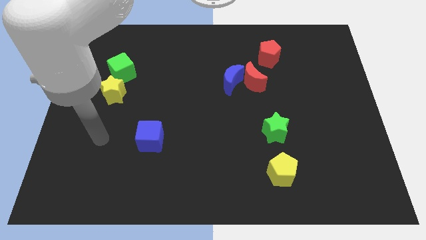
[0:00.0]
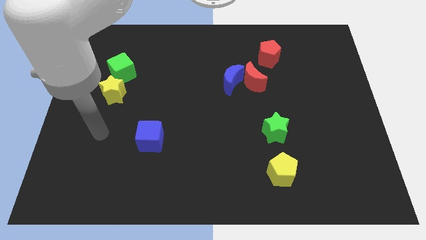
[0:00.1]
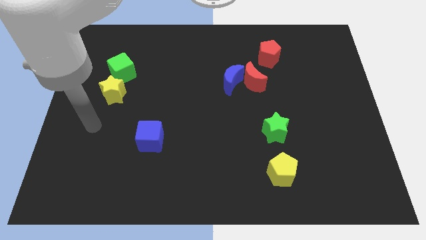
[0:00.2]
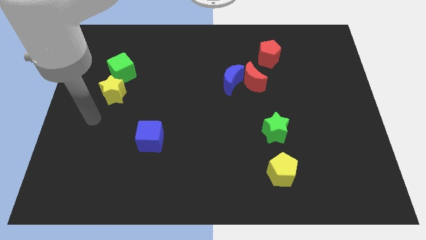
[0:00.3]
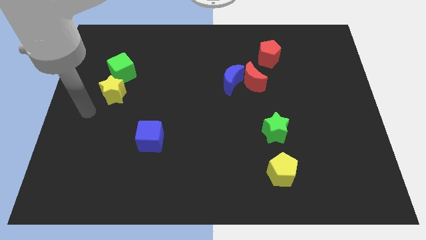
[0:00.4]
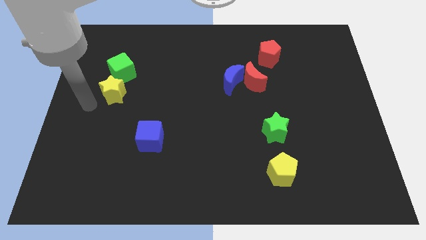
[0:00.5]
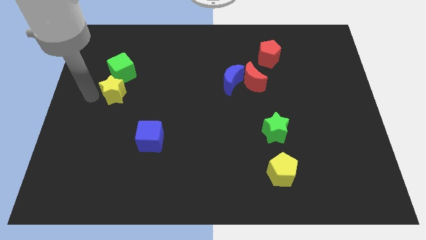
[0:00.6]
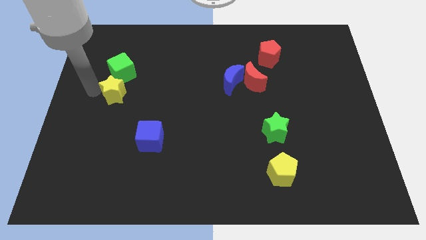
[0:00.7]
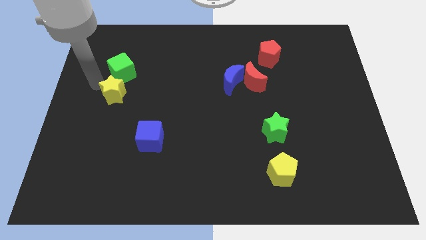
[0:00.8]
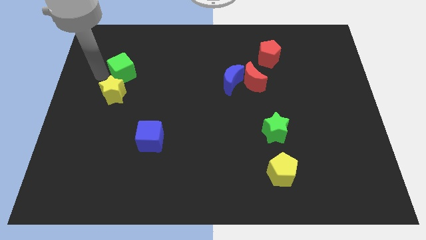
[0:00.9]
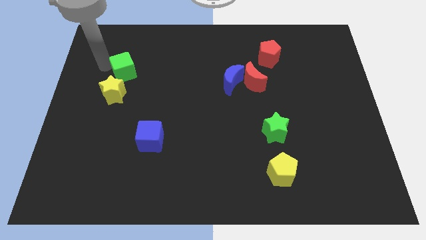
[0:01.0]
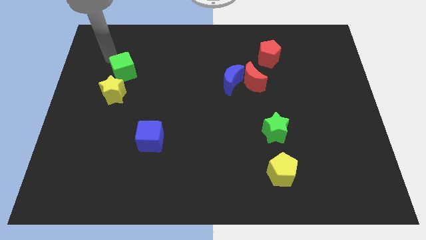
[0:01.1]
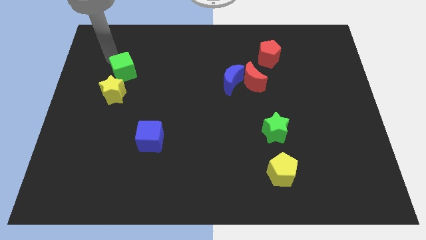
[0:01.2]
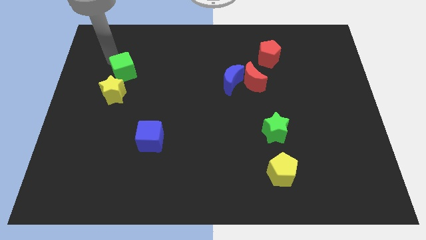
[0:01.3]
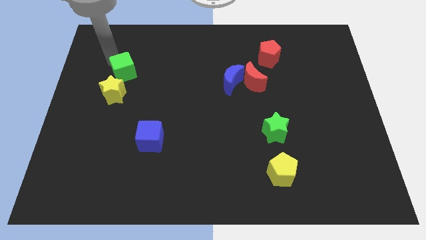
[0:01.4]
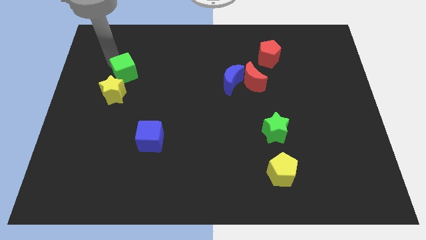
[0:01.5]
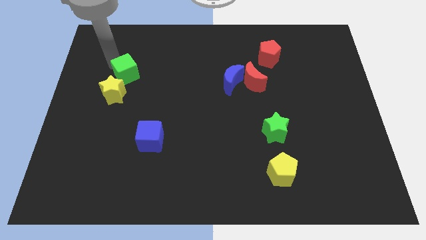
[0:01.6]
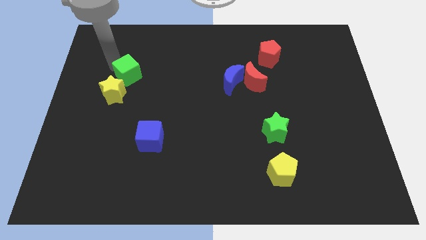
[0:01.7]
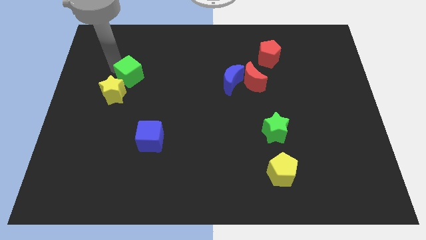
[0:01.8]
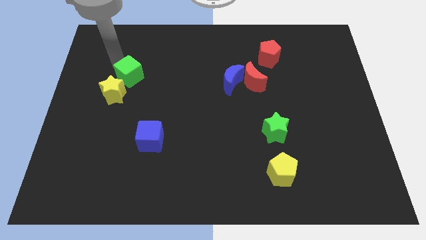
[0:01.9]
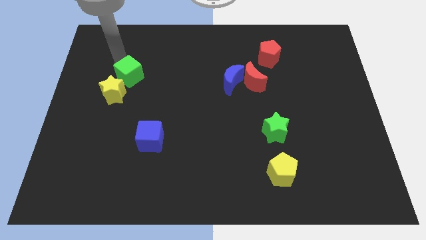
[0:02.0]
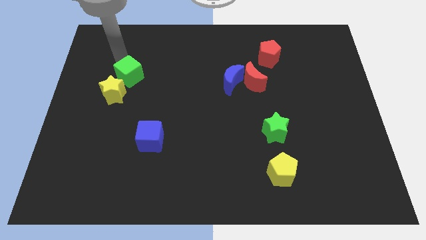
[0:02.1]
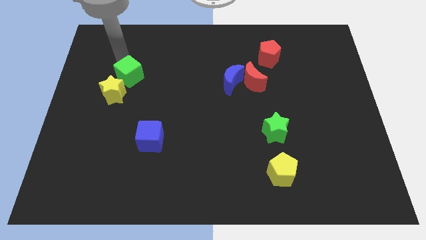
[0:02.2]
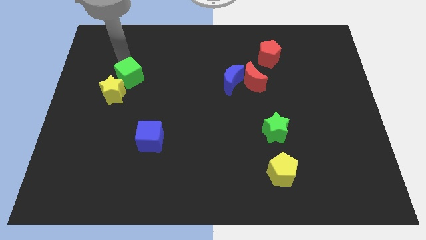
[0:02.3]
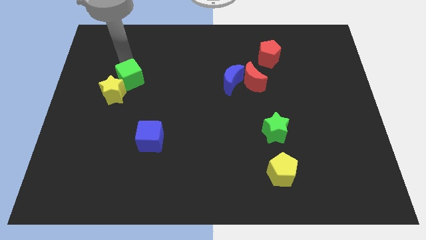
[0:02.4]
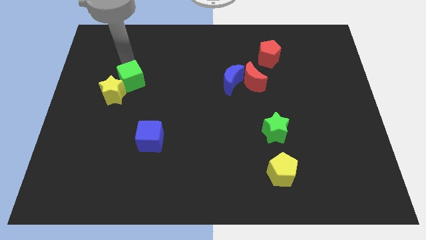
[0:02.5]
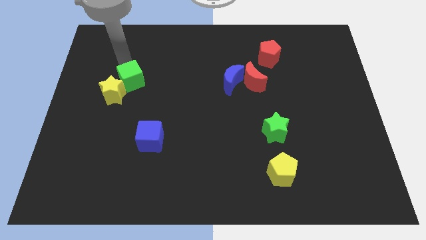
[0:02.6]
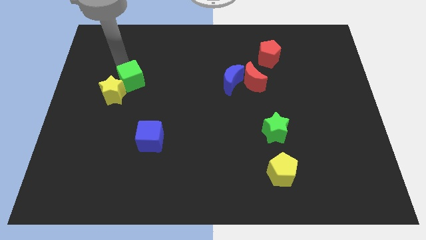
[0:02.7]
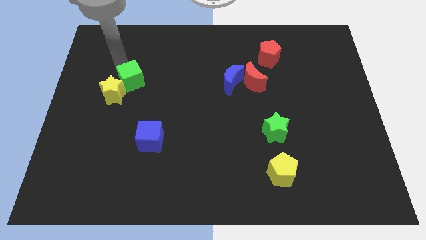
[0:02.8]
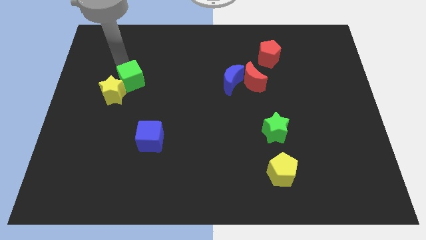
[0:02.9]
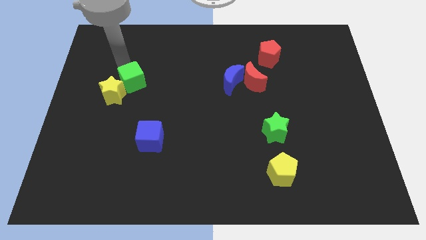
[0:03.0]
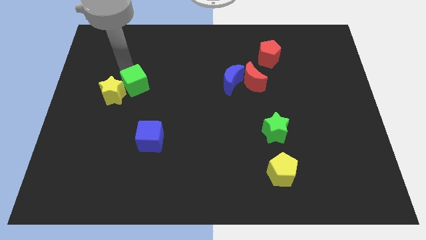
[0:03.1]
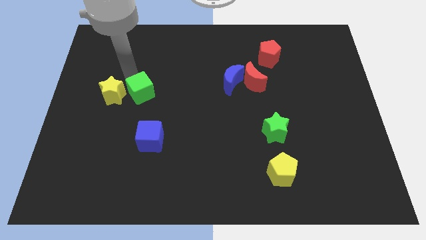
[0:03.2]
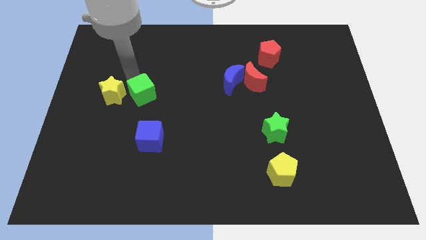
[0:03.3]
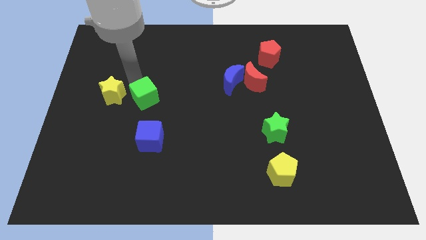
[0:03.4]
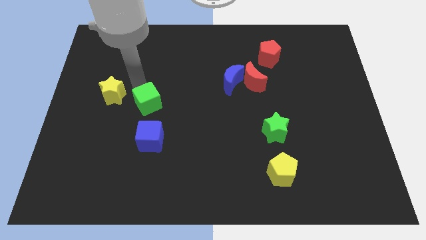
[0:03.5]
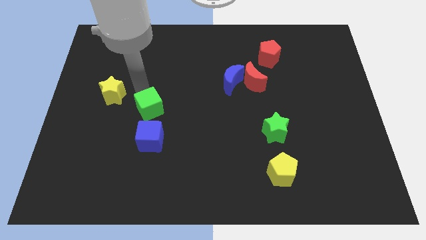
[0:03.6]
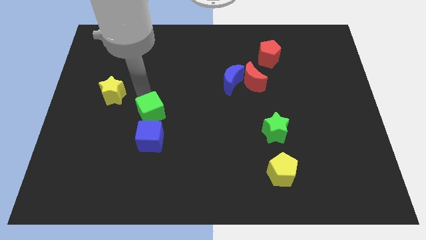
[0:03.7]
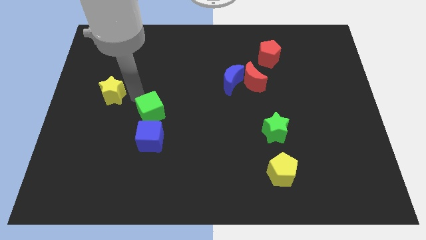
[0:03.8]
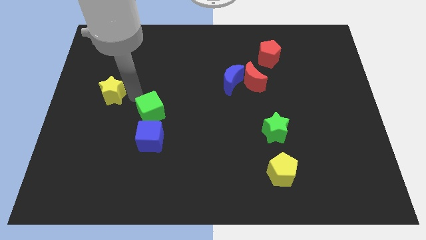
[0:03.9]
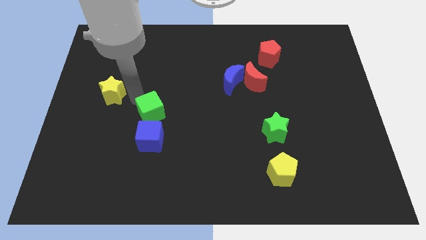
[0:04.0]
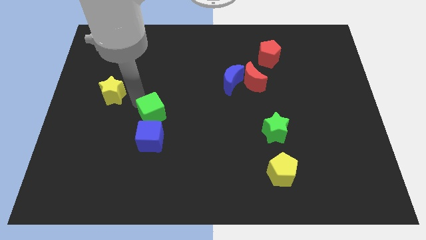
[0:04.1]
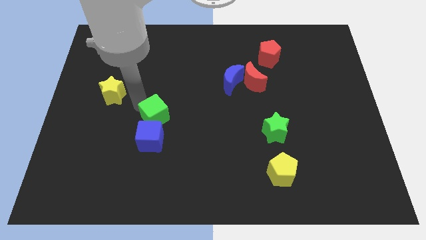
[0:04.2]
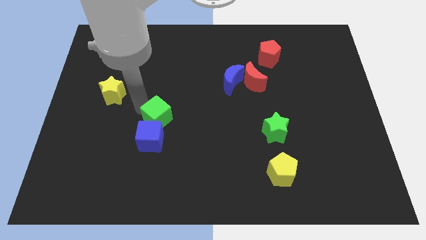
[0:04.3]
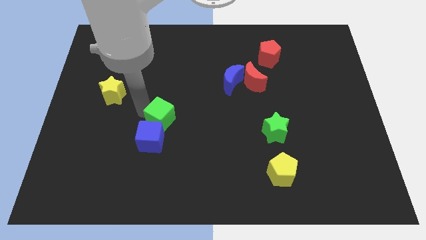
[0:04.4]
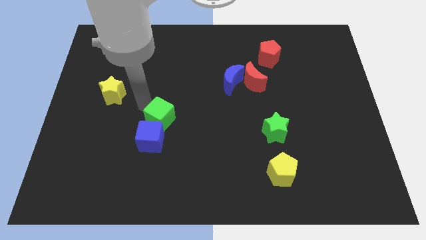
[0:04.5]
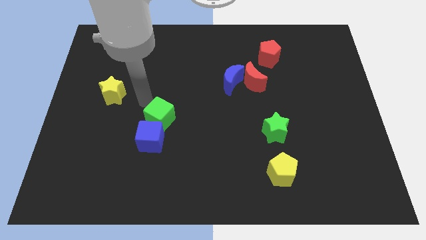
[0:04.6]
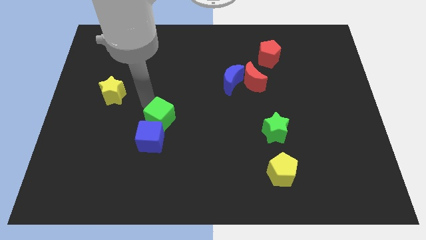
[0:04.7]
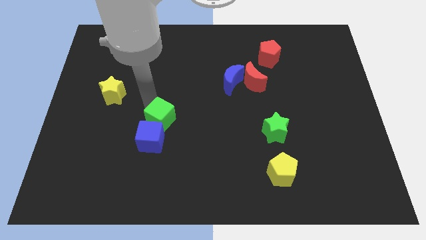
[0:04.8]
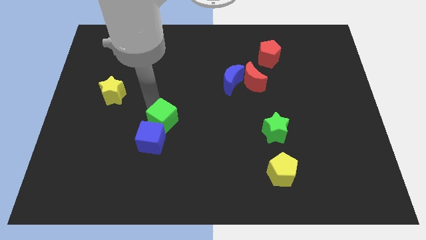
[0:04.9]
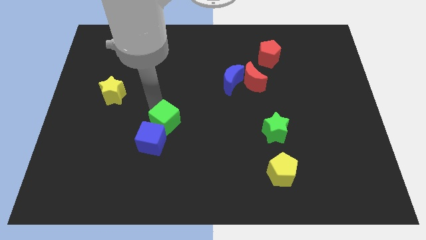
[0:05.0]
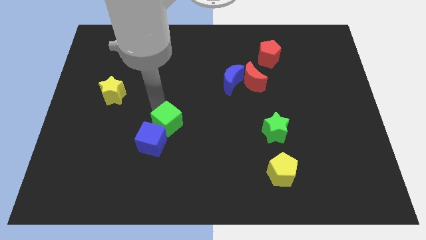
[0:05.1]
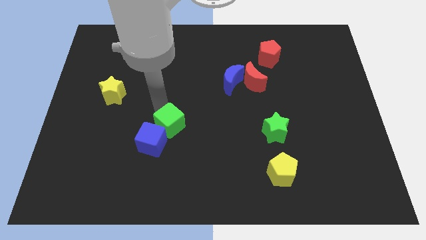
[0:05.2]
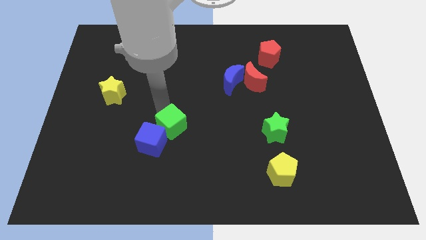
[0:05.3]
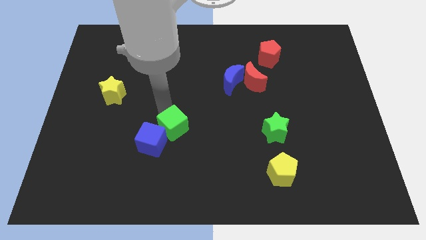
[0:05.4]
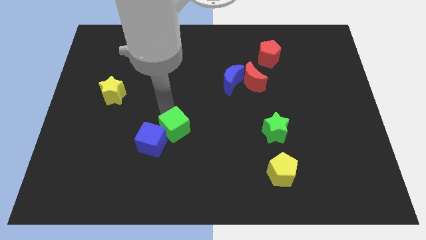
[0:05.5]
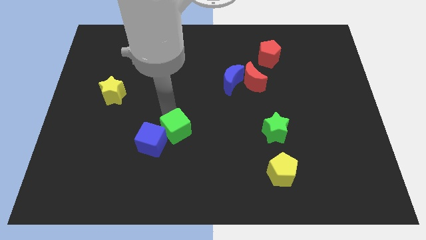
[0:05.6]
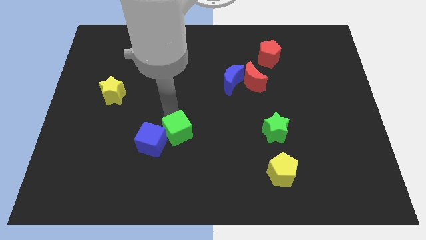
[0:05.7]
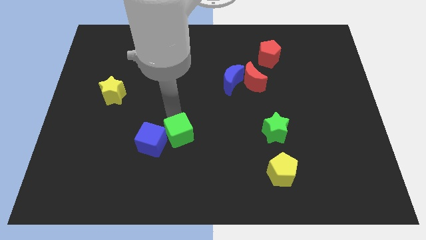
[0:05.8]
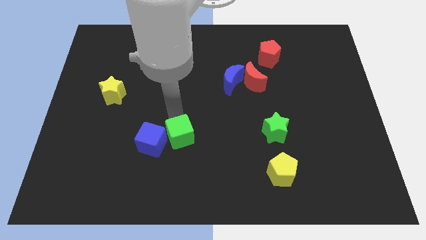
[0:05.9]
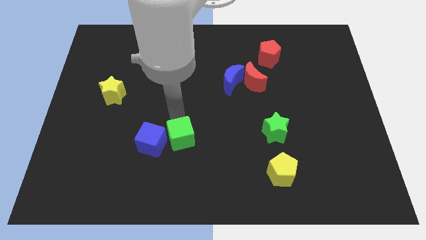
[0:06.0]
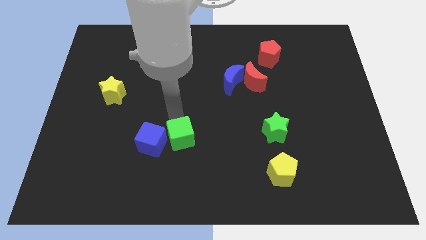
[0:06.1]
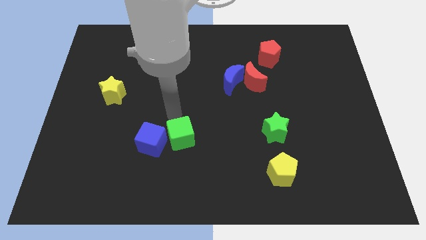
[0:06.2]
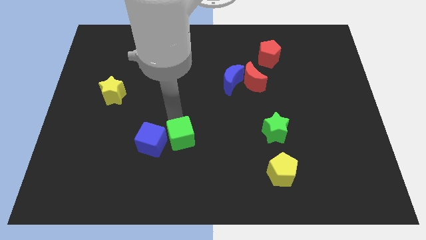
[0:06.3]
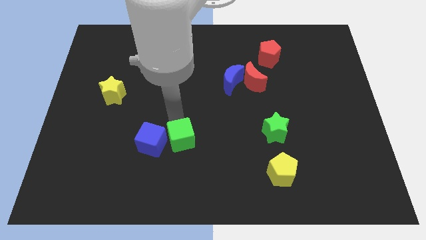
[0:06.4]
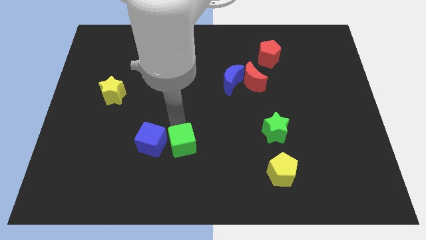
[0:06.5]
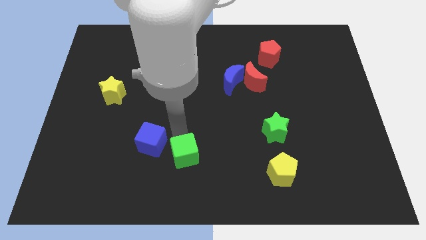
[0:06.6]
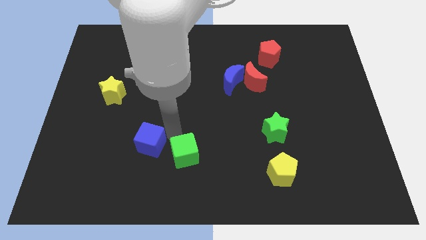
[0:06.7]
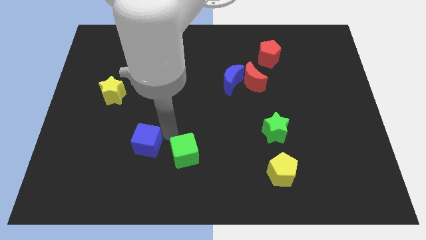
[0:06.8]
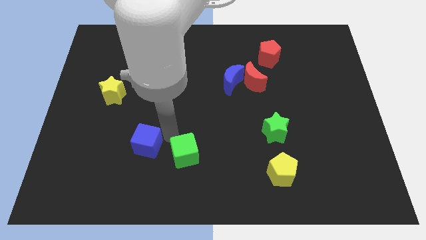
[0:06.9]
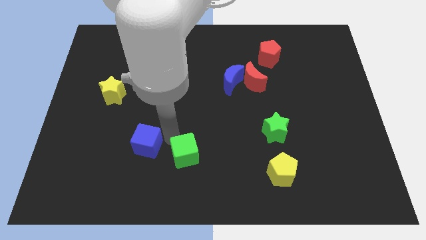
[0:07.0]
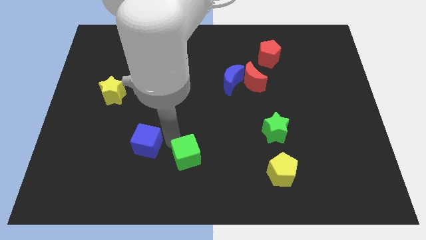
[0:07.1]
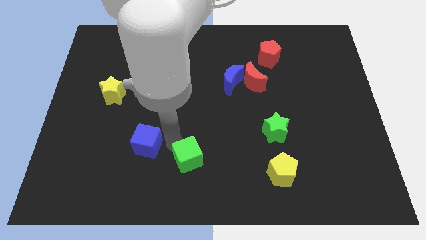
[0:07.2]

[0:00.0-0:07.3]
push the green cube to the bottom
